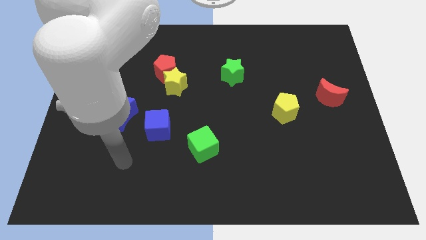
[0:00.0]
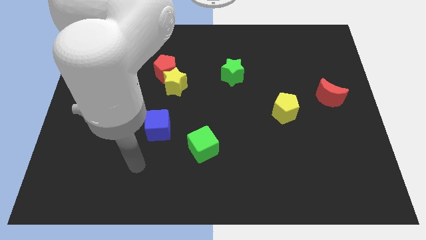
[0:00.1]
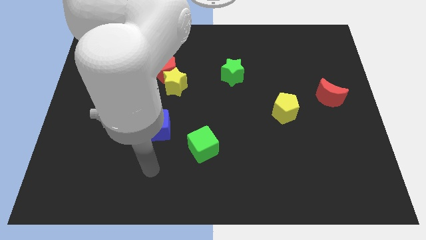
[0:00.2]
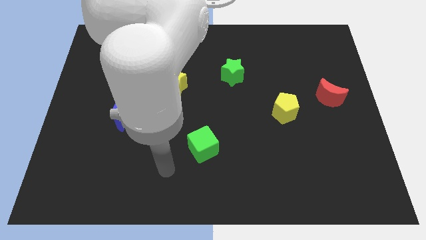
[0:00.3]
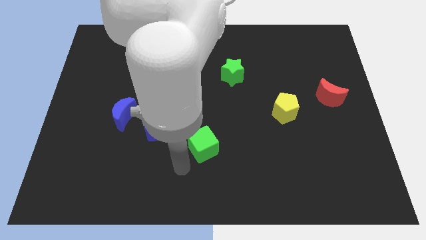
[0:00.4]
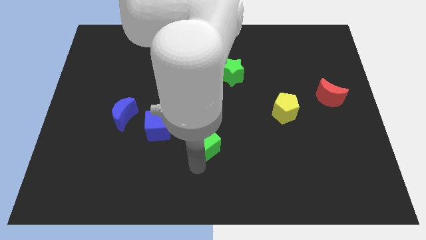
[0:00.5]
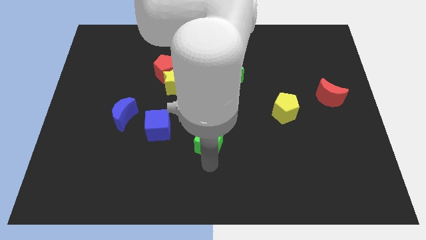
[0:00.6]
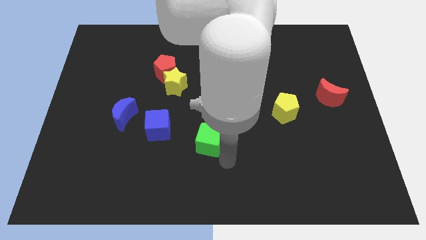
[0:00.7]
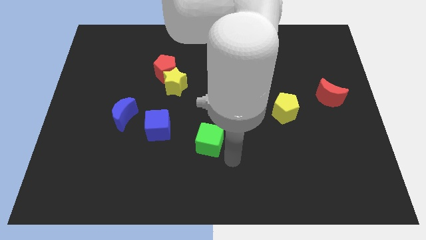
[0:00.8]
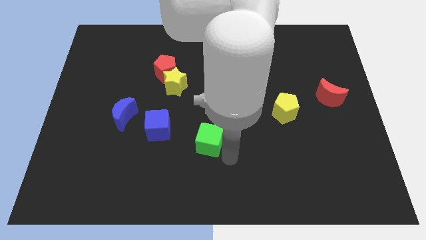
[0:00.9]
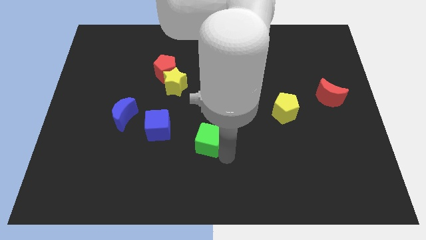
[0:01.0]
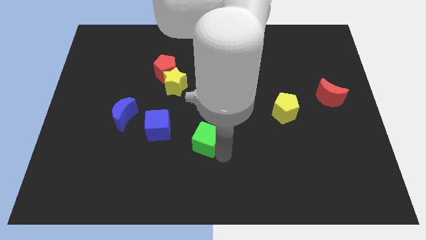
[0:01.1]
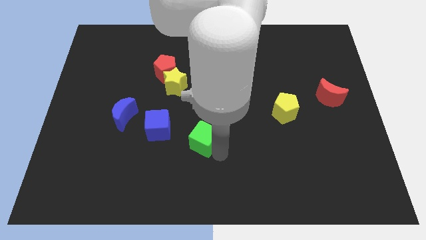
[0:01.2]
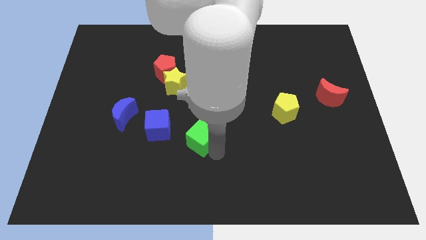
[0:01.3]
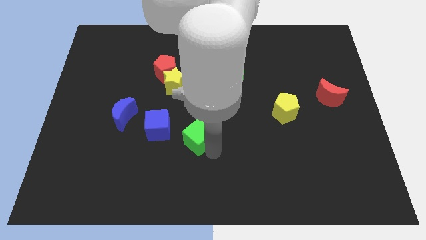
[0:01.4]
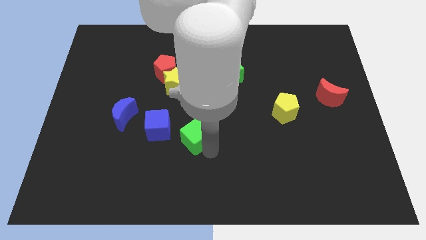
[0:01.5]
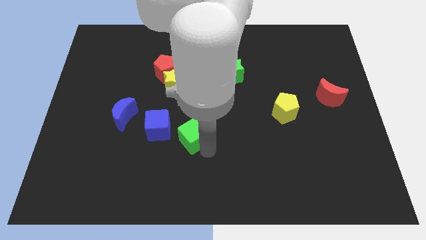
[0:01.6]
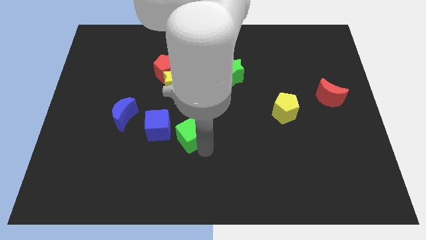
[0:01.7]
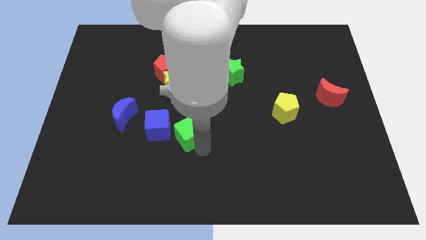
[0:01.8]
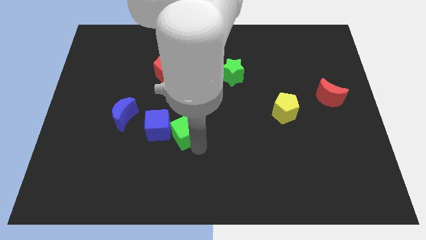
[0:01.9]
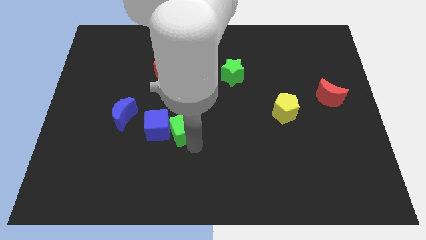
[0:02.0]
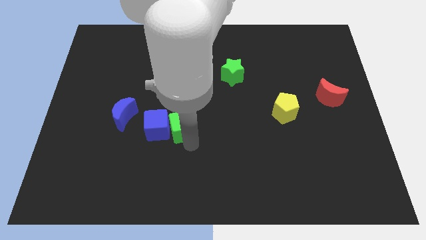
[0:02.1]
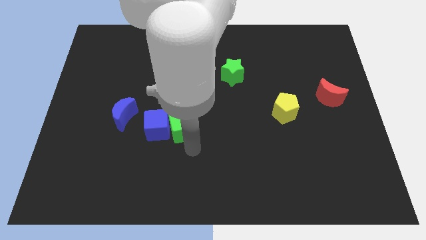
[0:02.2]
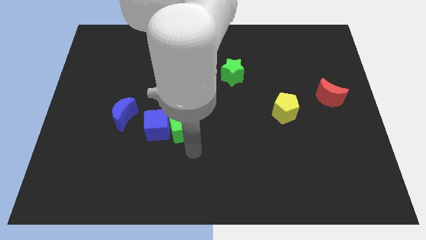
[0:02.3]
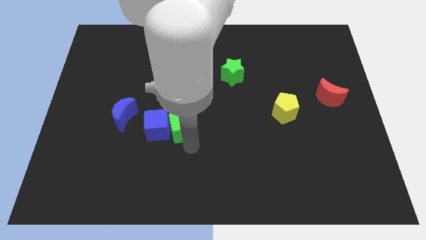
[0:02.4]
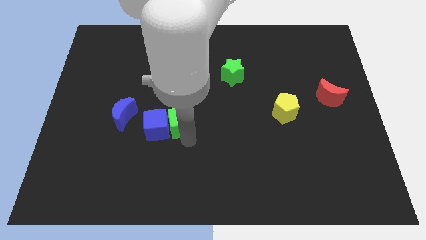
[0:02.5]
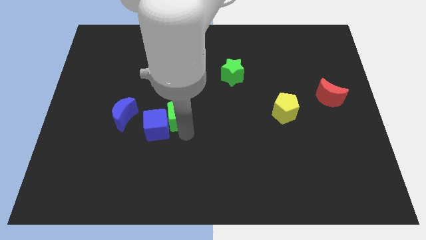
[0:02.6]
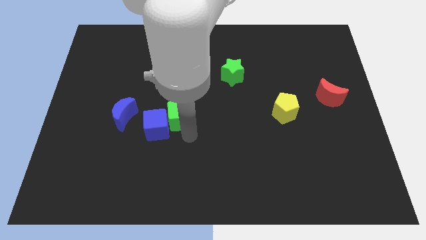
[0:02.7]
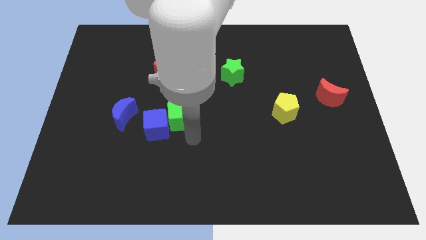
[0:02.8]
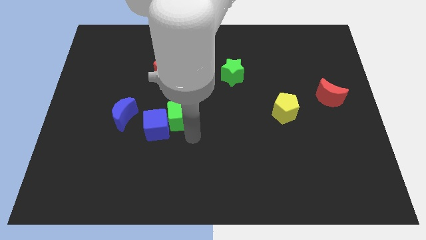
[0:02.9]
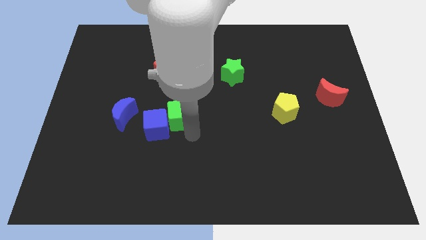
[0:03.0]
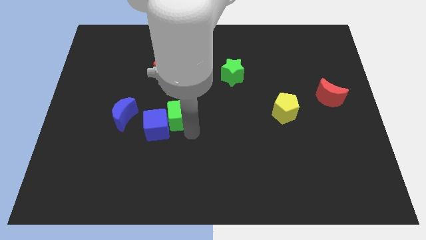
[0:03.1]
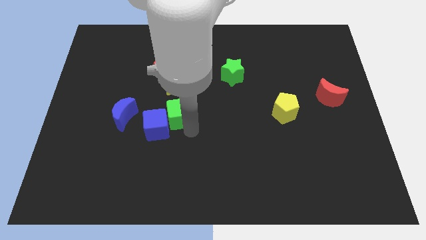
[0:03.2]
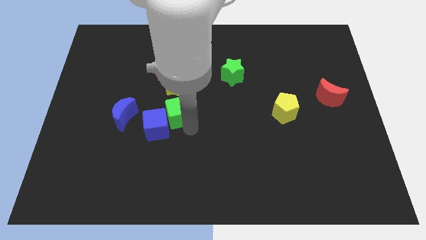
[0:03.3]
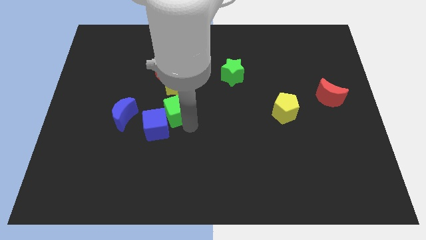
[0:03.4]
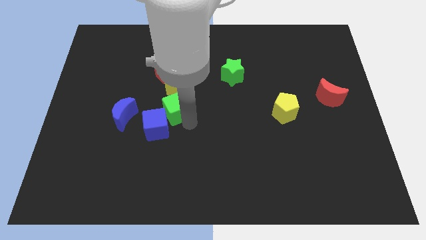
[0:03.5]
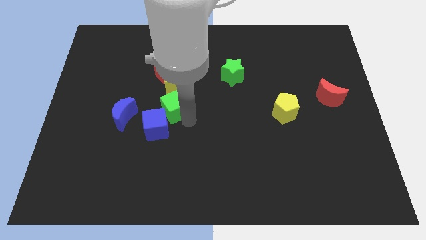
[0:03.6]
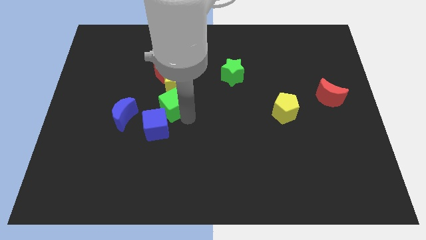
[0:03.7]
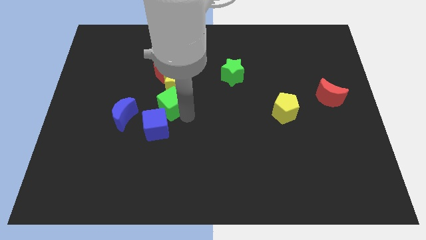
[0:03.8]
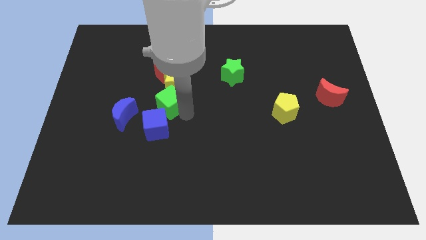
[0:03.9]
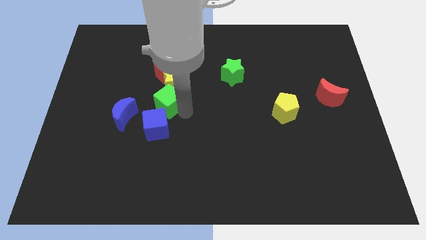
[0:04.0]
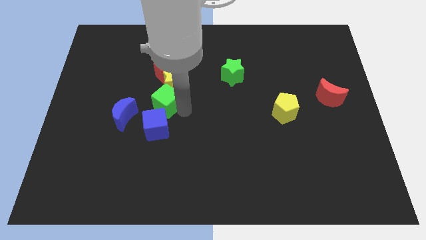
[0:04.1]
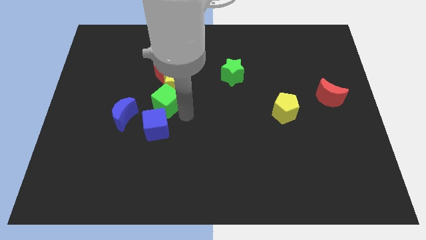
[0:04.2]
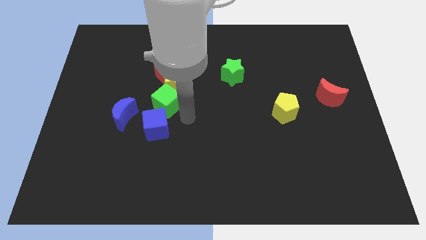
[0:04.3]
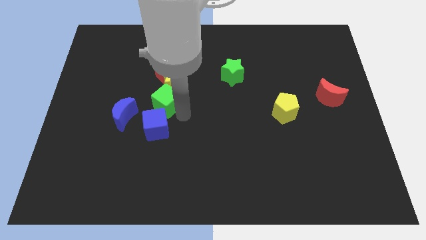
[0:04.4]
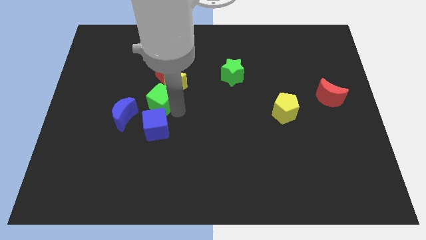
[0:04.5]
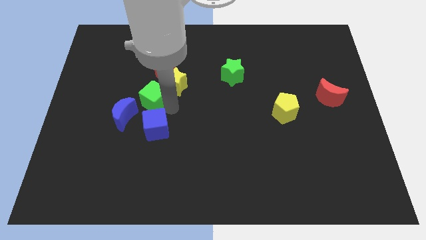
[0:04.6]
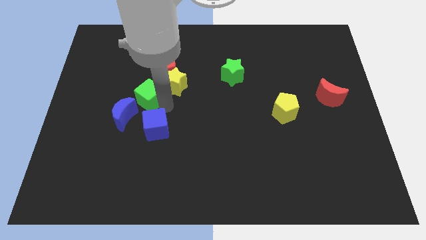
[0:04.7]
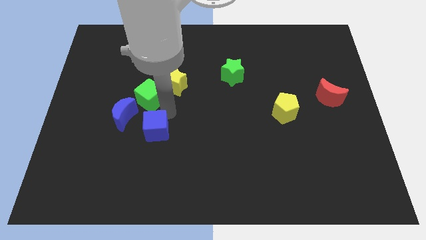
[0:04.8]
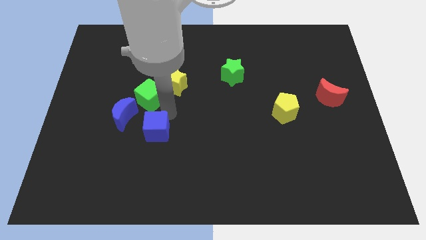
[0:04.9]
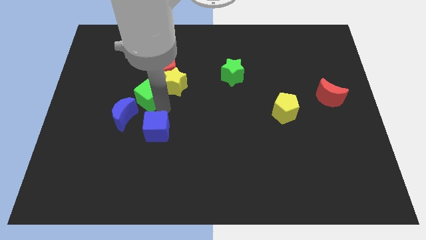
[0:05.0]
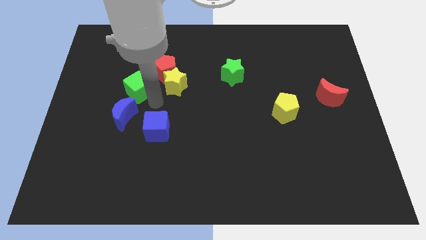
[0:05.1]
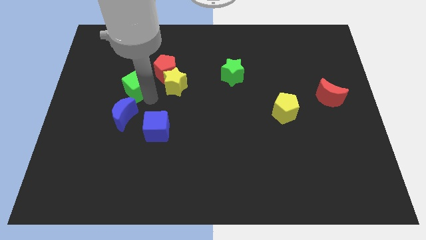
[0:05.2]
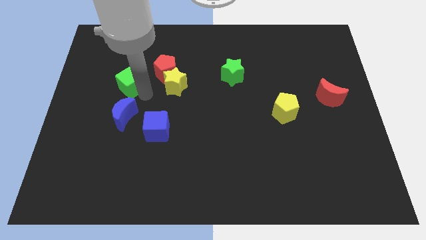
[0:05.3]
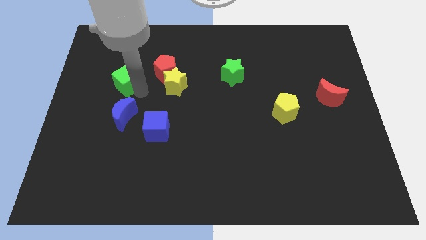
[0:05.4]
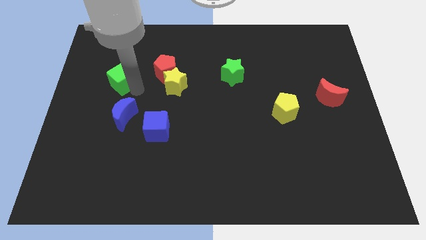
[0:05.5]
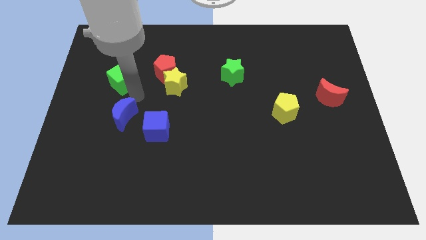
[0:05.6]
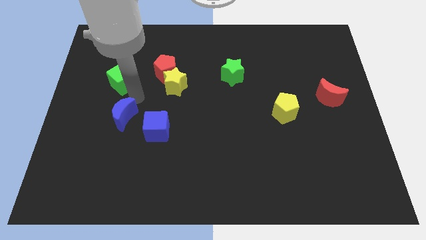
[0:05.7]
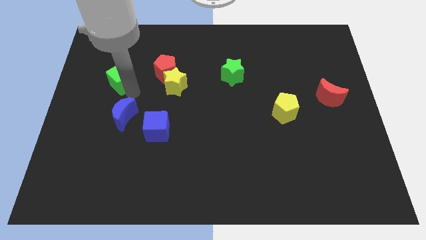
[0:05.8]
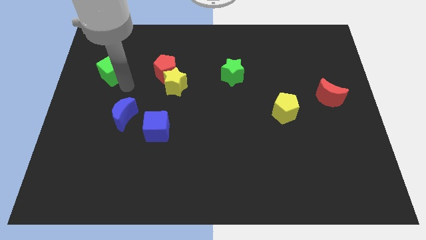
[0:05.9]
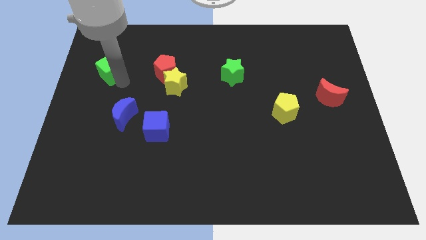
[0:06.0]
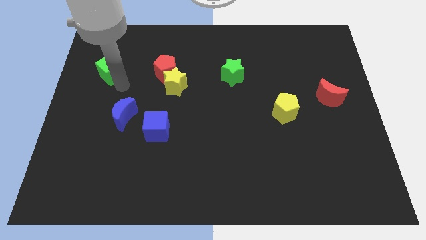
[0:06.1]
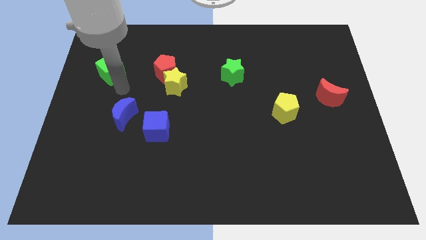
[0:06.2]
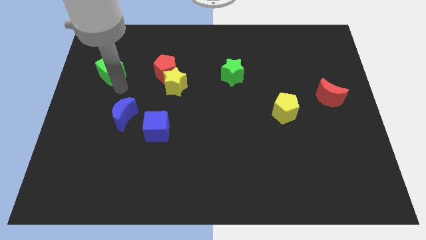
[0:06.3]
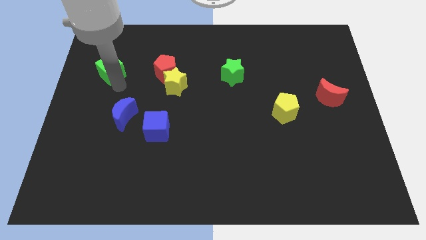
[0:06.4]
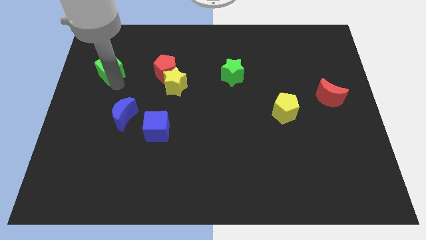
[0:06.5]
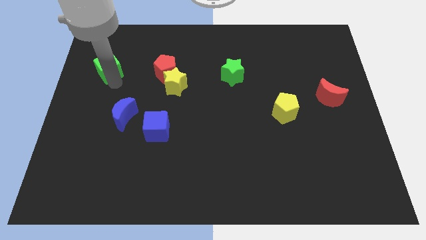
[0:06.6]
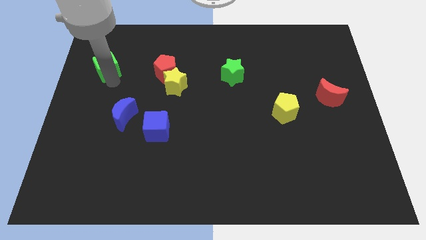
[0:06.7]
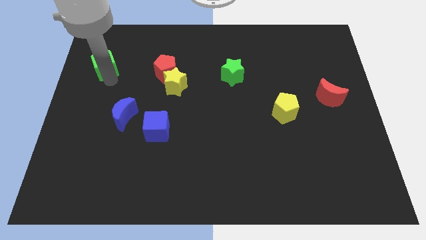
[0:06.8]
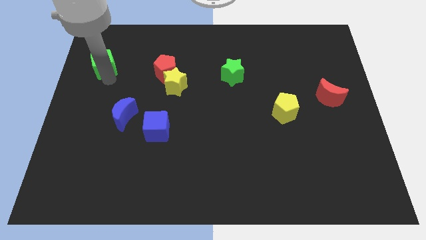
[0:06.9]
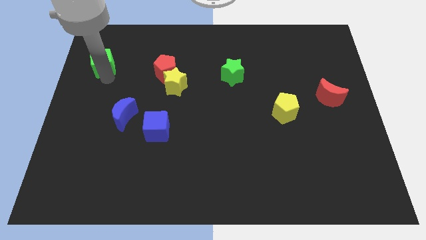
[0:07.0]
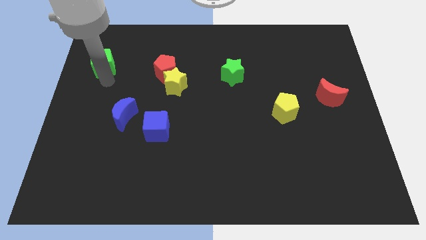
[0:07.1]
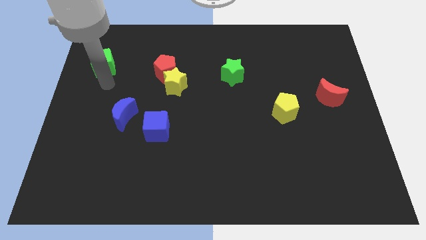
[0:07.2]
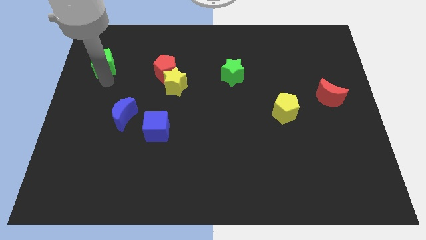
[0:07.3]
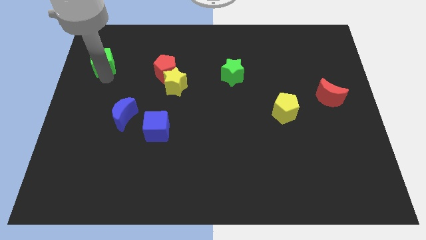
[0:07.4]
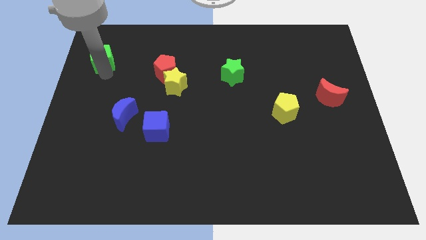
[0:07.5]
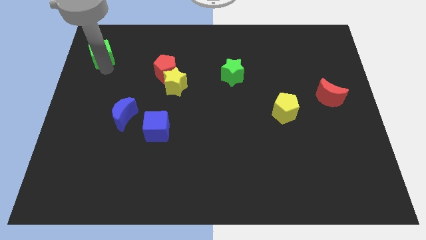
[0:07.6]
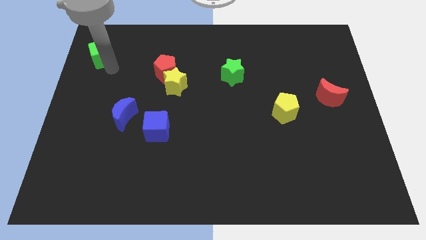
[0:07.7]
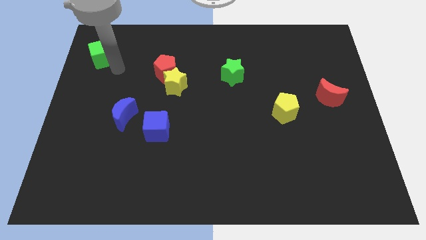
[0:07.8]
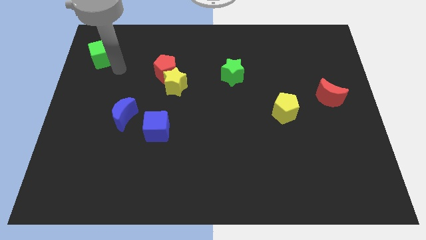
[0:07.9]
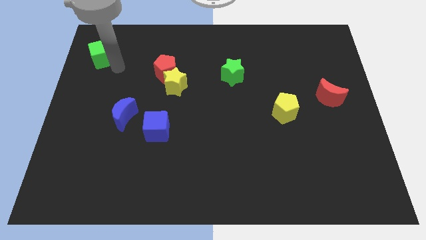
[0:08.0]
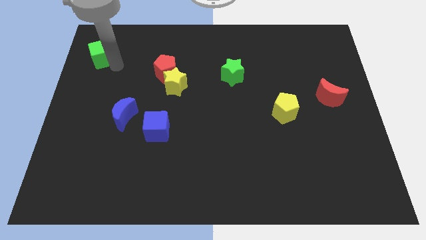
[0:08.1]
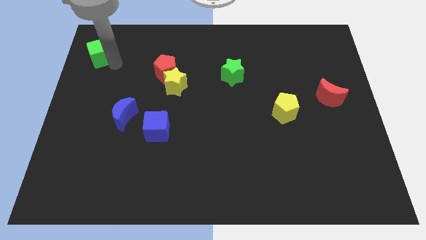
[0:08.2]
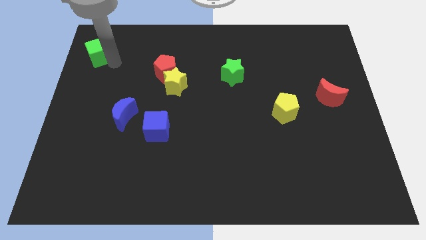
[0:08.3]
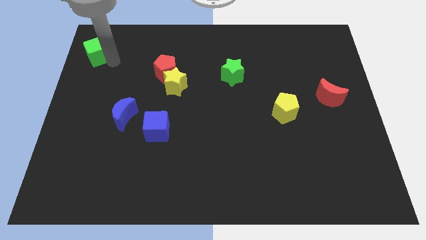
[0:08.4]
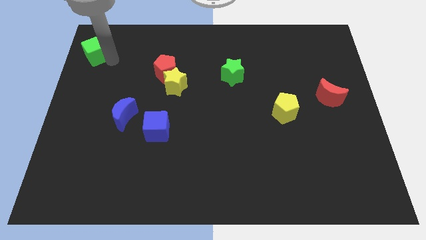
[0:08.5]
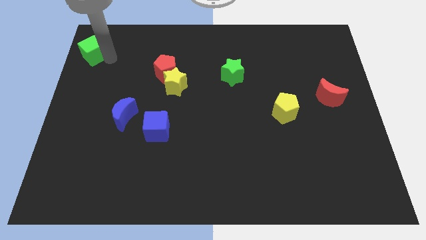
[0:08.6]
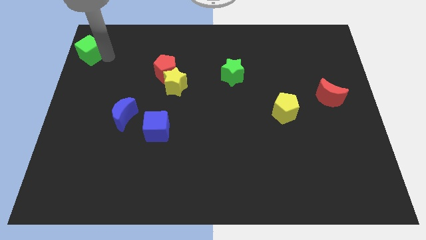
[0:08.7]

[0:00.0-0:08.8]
put the green cube to the top left
